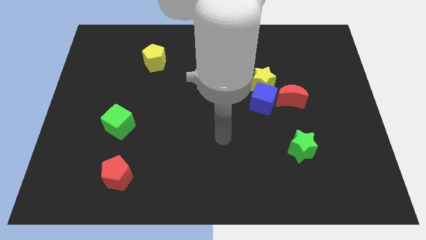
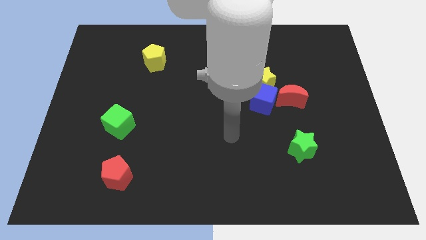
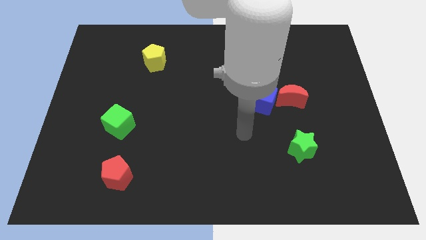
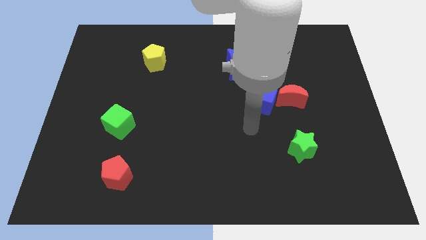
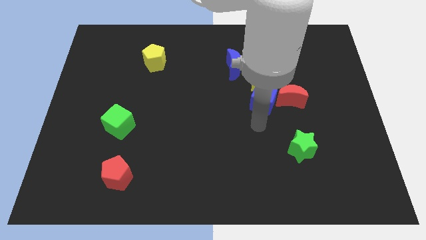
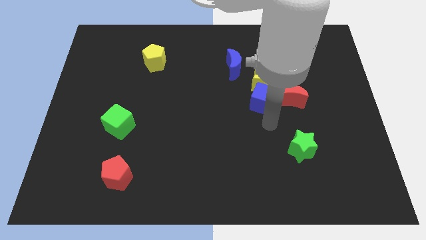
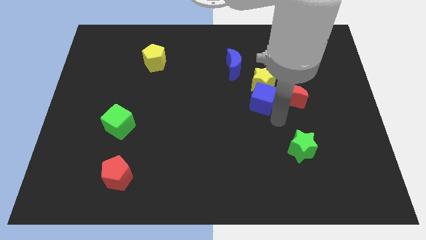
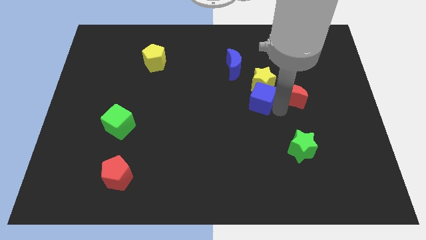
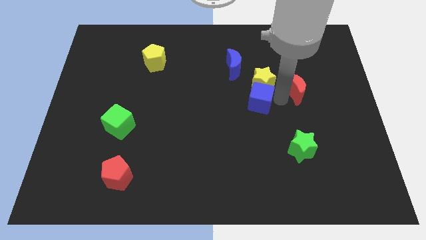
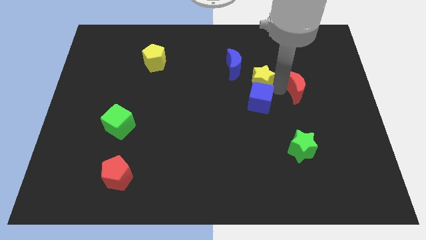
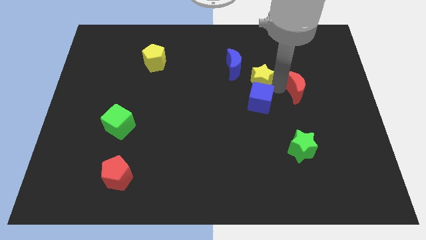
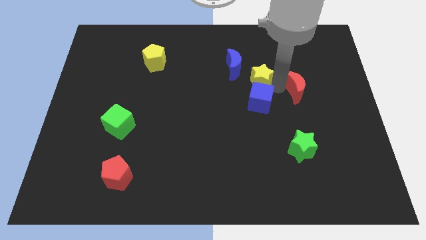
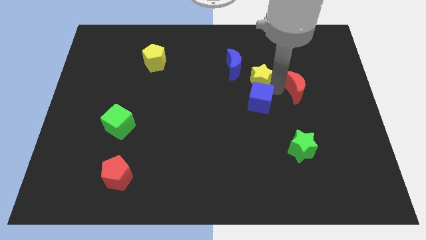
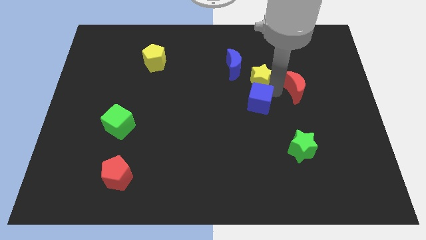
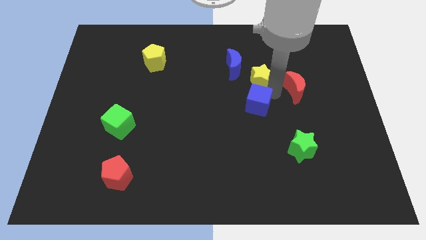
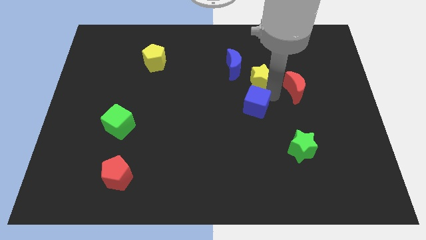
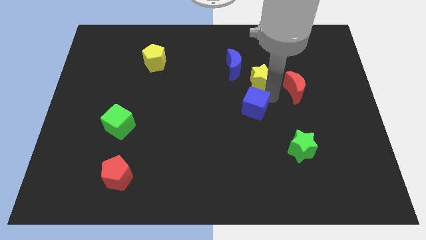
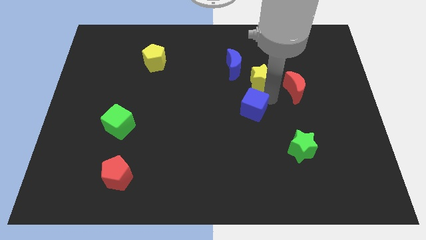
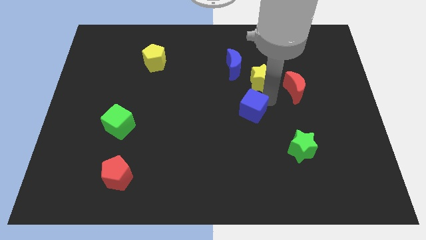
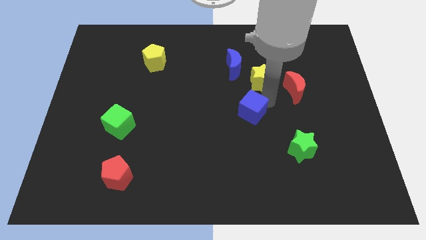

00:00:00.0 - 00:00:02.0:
pull the blue cube apart from the yellow star and red moon

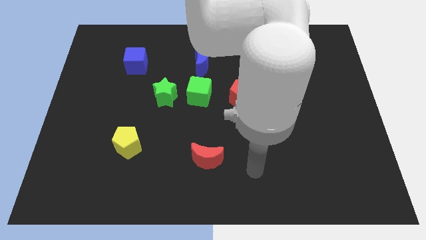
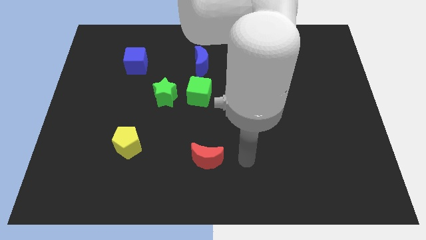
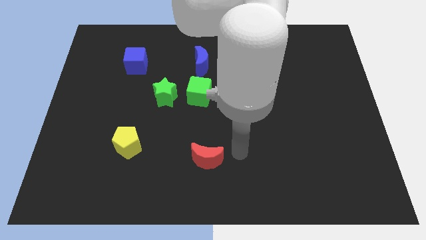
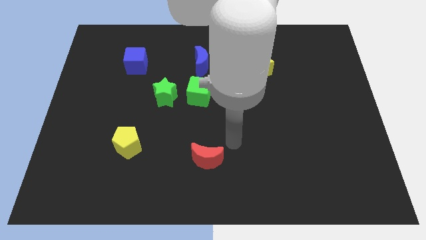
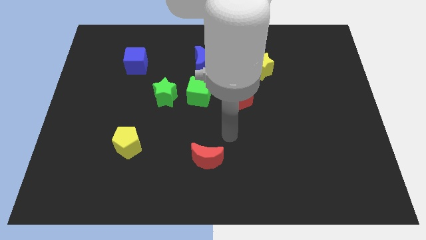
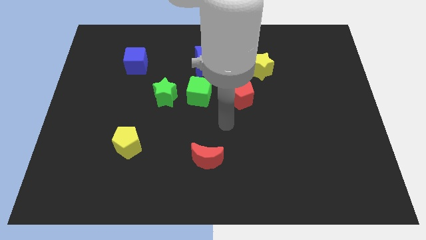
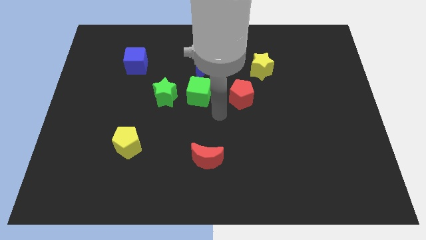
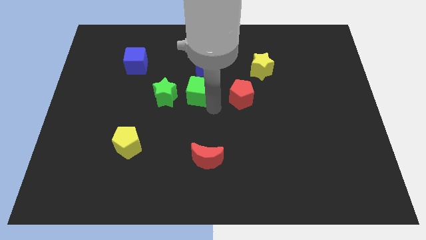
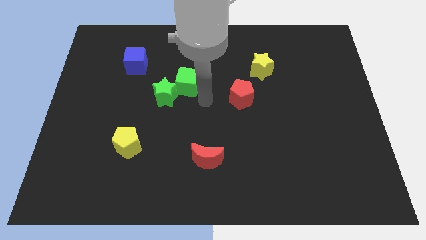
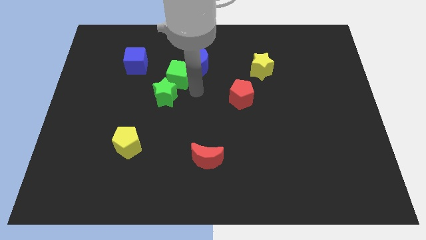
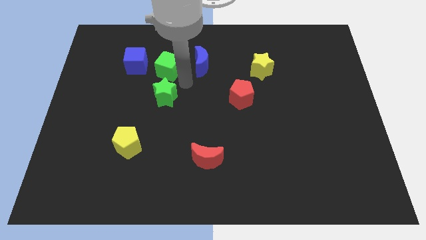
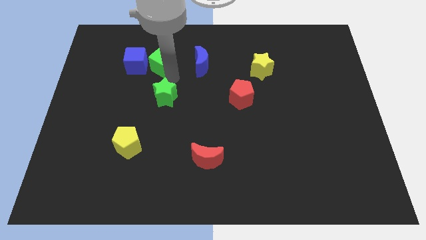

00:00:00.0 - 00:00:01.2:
separate the green star from the green cube

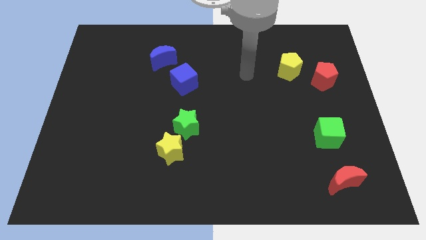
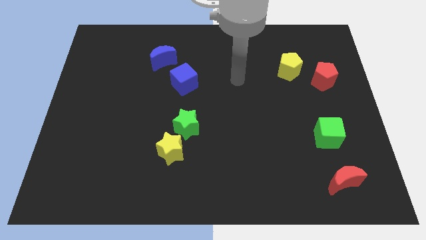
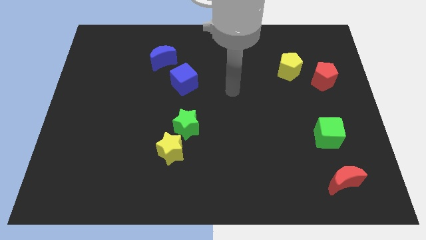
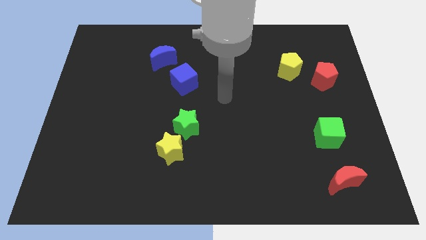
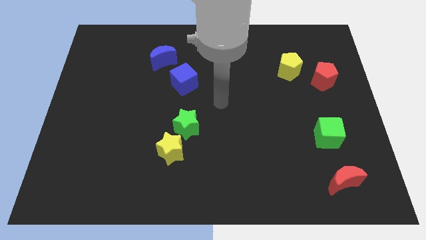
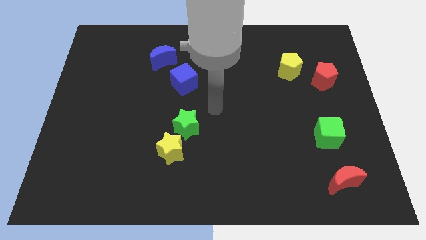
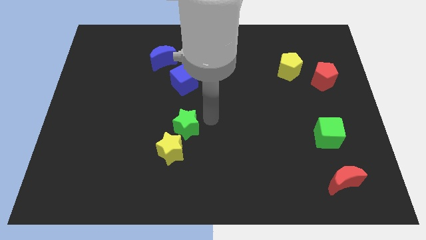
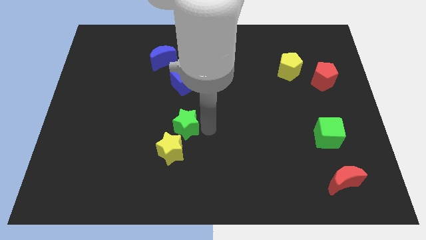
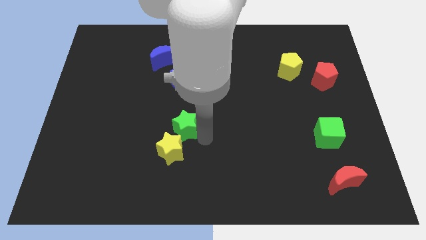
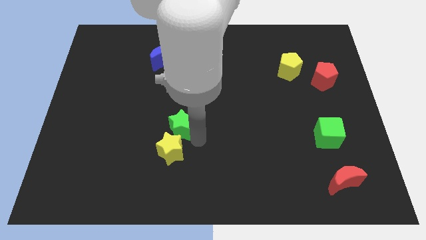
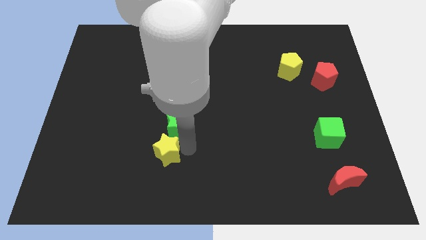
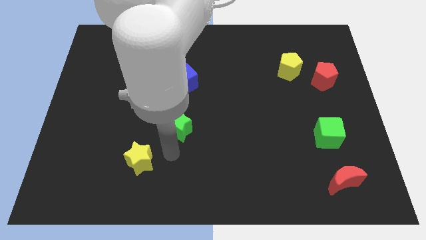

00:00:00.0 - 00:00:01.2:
separate the green star from the yellow star

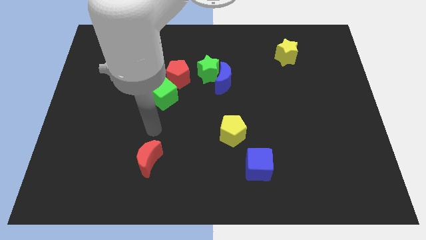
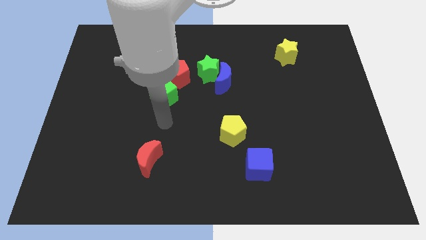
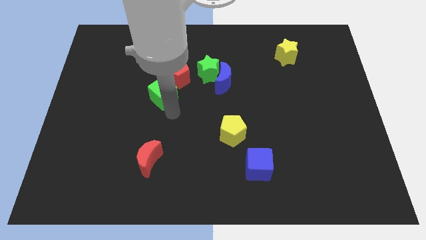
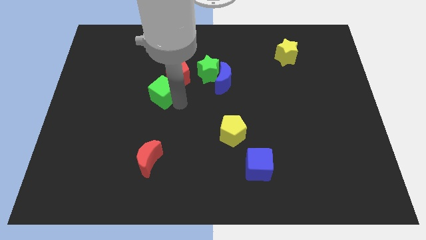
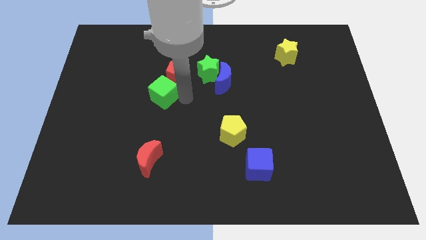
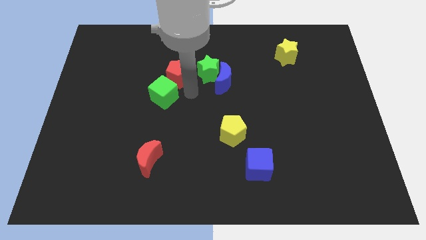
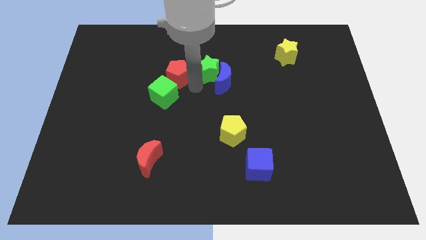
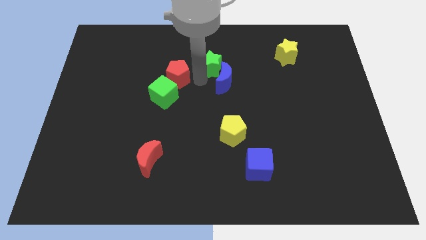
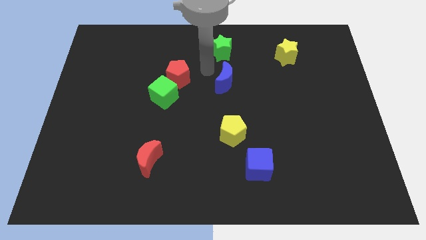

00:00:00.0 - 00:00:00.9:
move the blue moon away from the green star

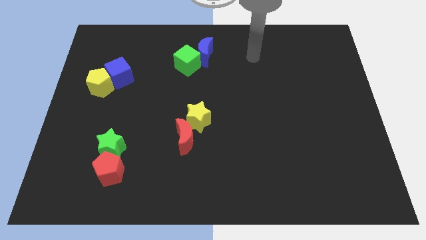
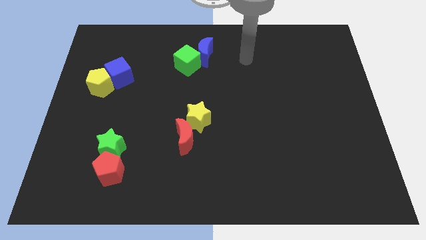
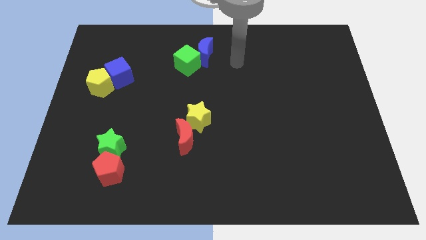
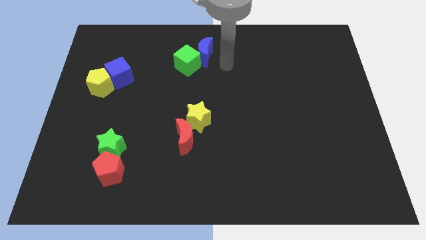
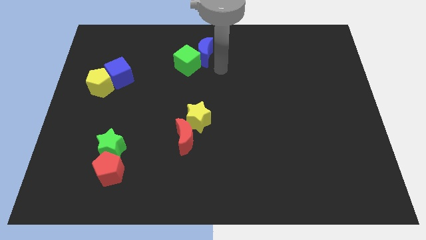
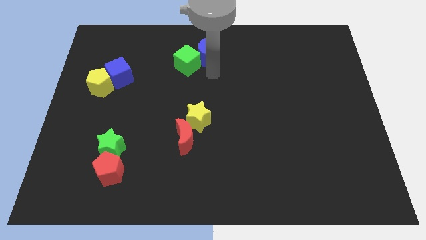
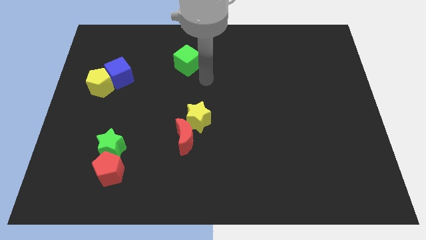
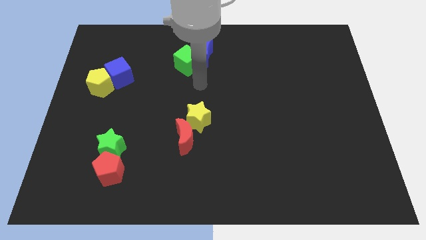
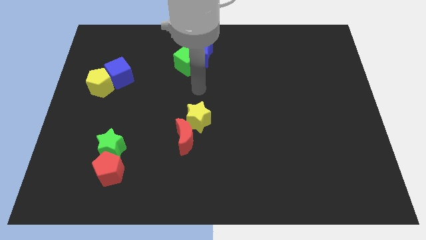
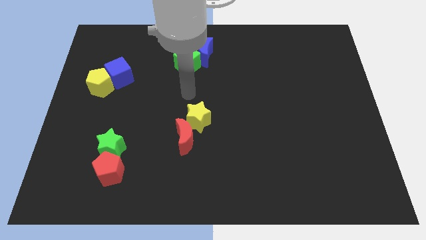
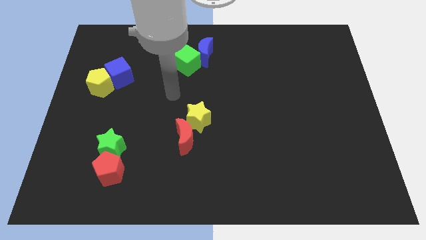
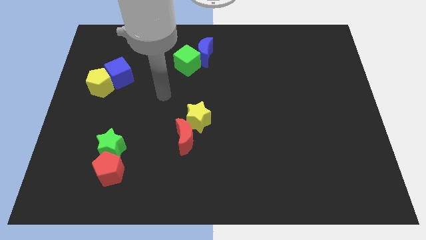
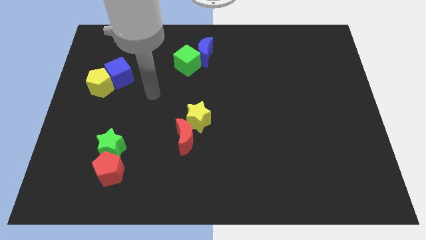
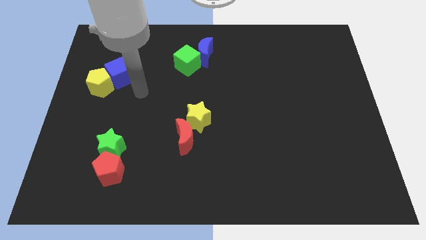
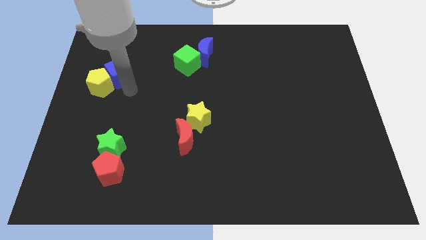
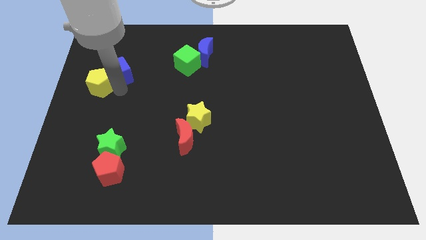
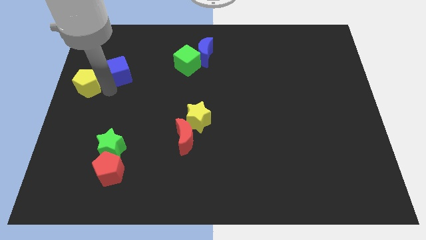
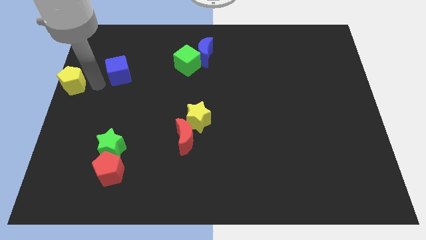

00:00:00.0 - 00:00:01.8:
separate the blue cube from the yellow pentagon

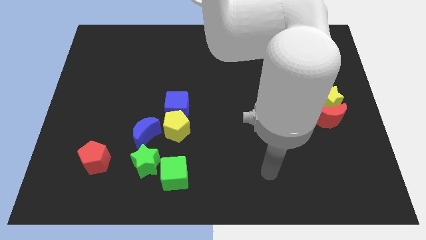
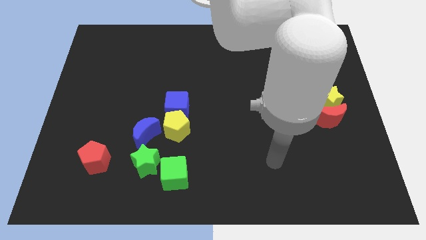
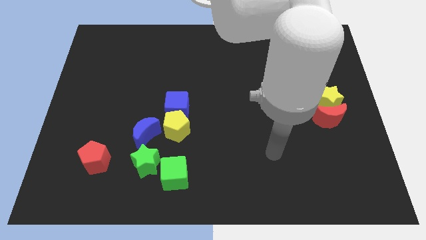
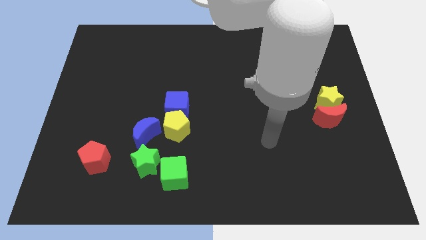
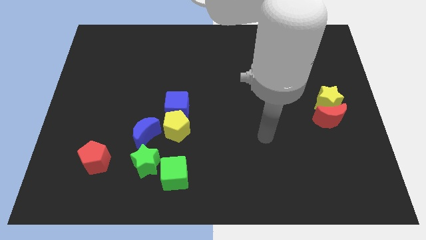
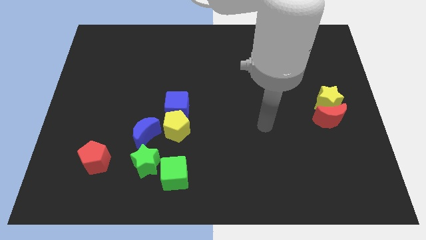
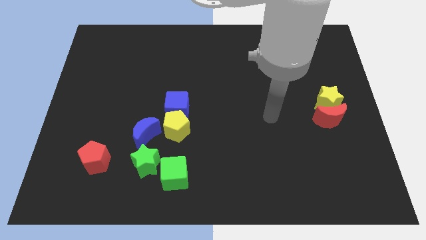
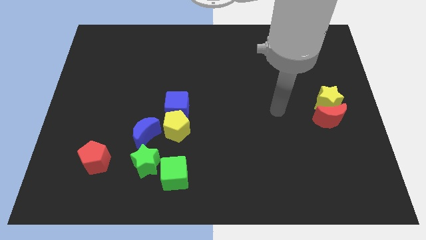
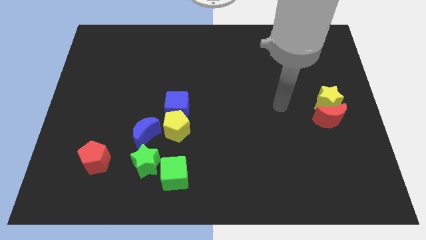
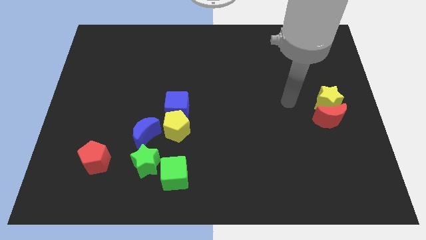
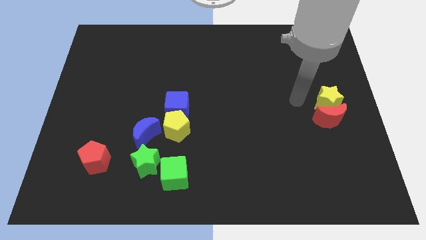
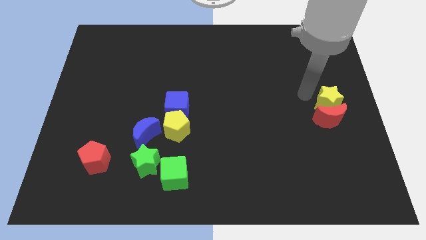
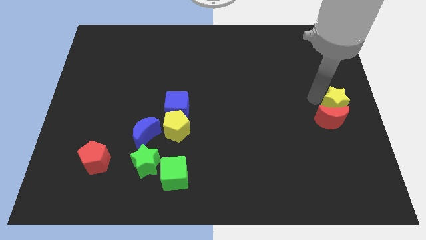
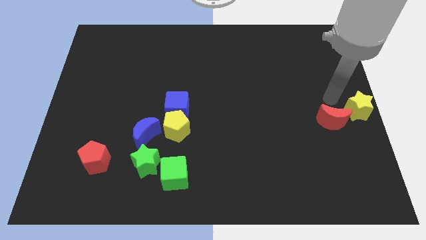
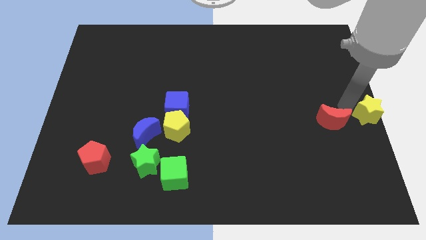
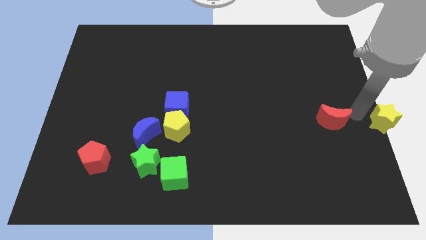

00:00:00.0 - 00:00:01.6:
separate the red moon from the yellow star

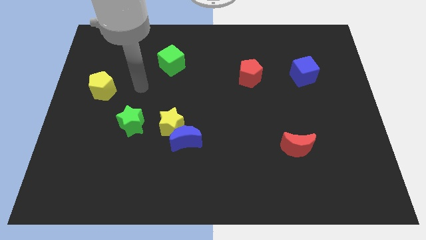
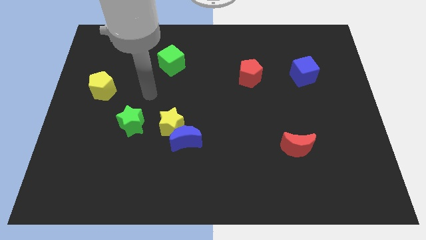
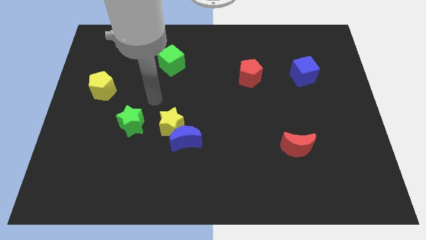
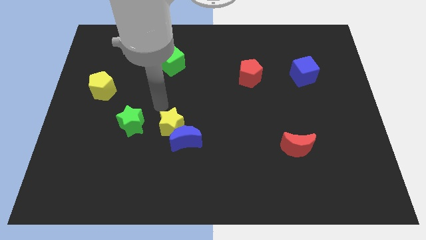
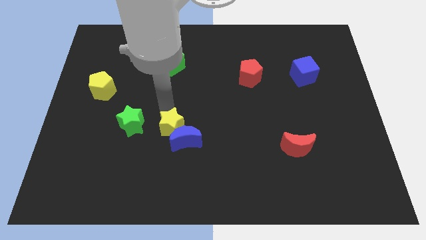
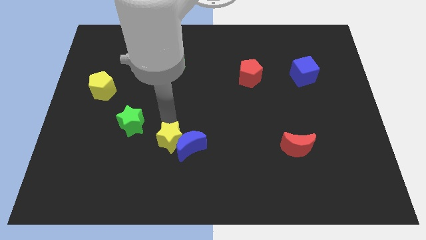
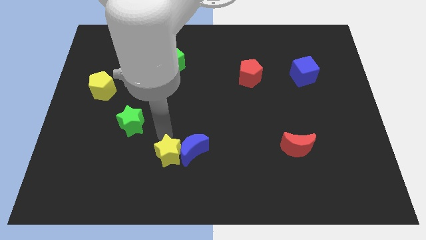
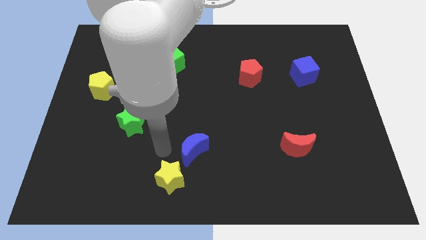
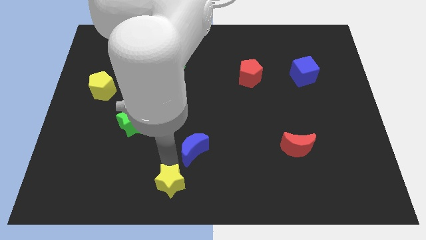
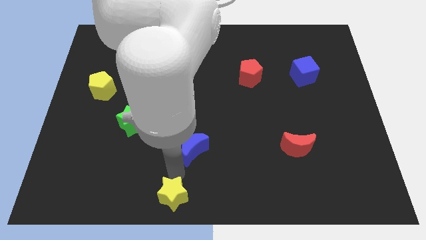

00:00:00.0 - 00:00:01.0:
pull the blue moon apart from the yellow star
